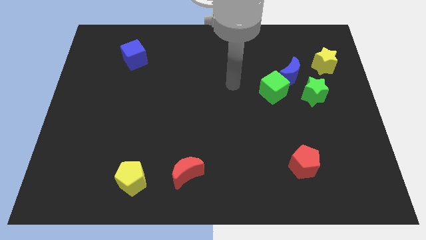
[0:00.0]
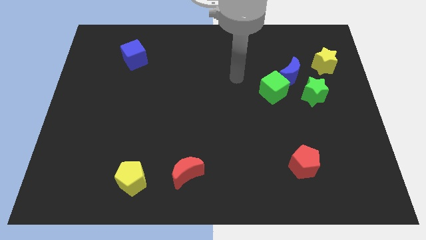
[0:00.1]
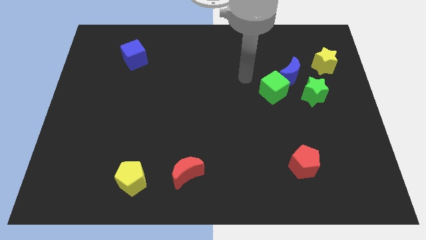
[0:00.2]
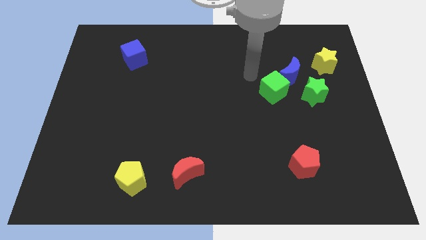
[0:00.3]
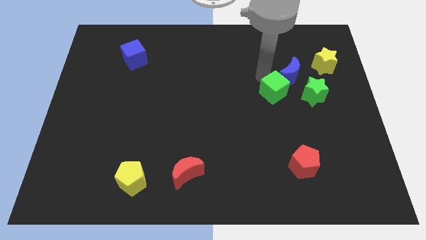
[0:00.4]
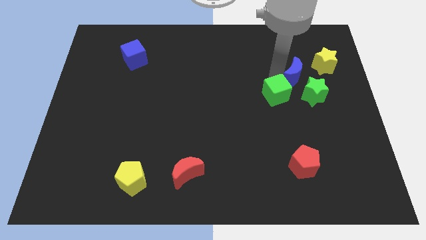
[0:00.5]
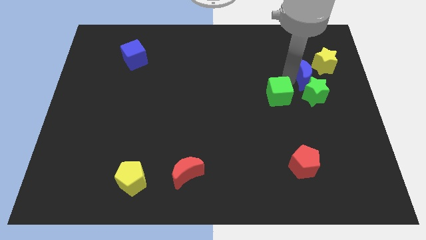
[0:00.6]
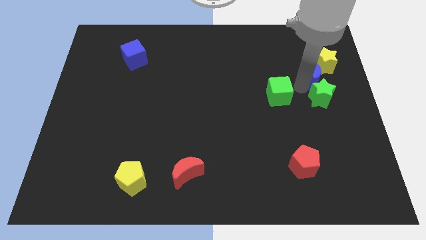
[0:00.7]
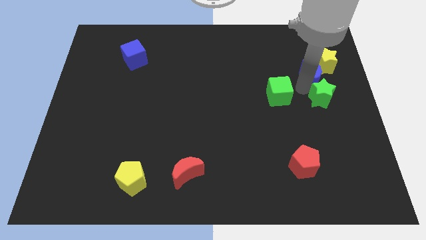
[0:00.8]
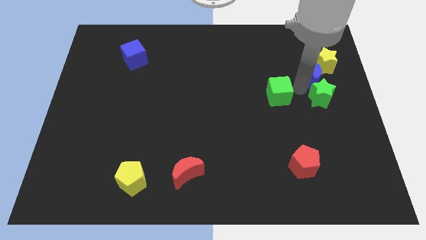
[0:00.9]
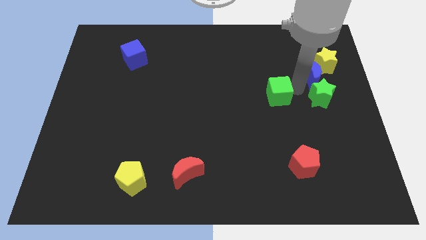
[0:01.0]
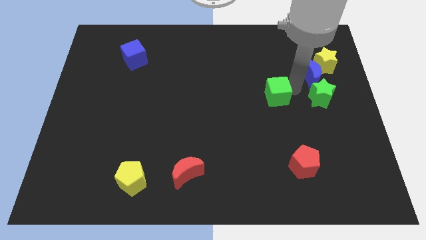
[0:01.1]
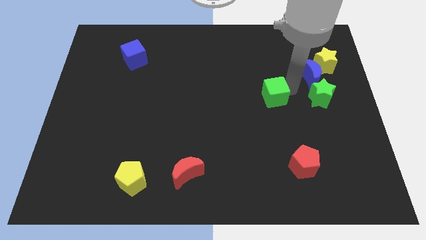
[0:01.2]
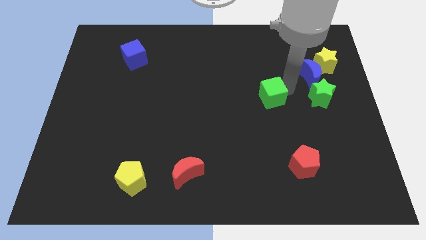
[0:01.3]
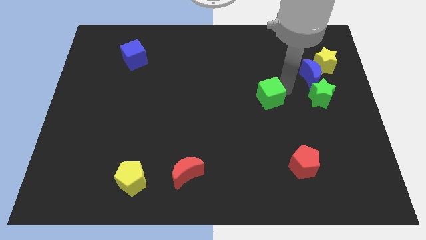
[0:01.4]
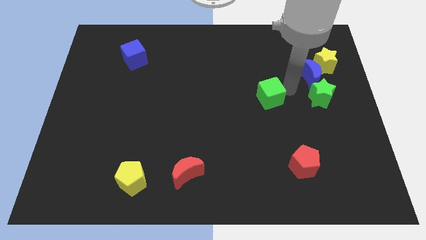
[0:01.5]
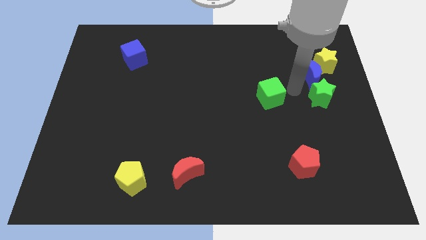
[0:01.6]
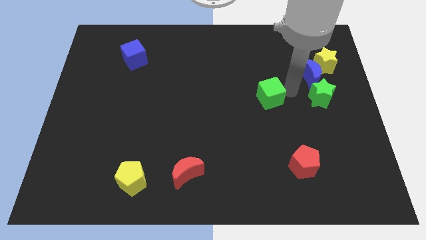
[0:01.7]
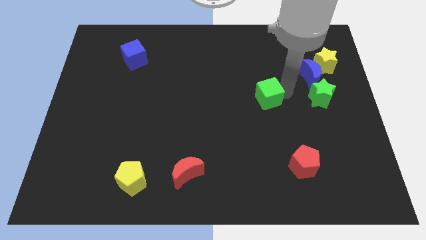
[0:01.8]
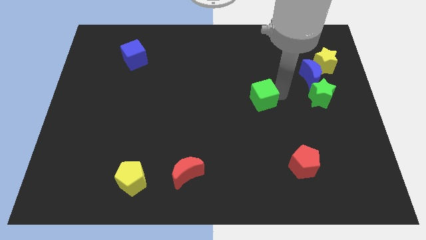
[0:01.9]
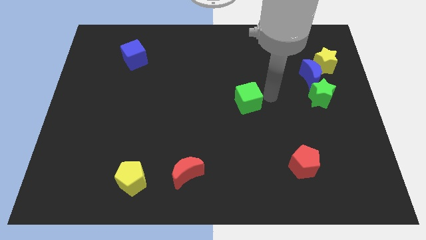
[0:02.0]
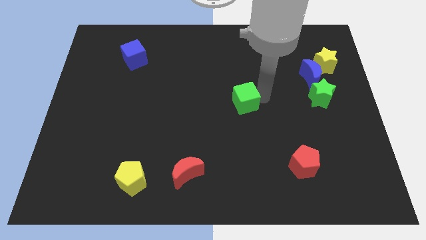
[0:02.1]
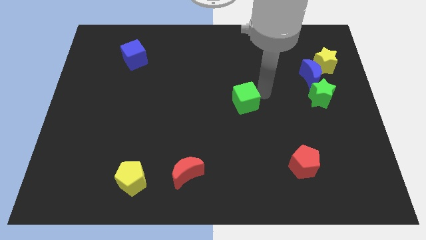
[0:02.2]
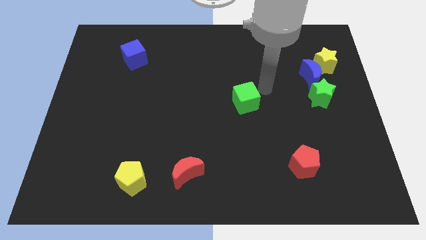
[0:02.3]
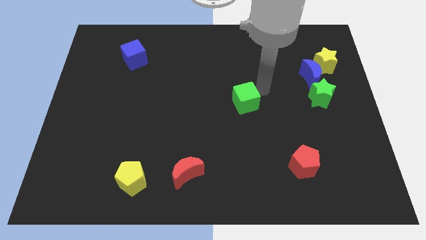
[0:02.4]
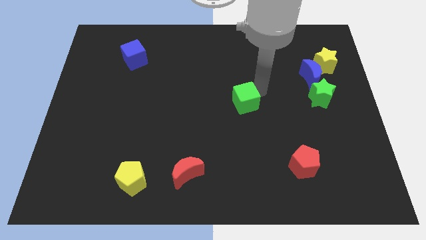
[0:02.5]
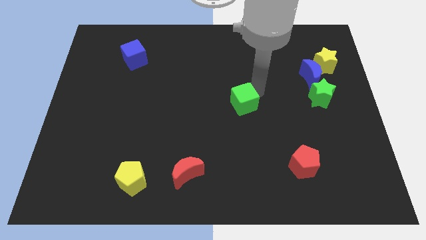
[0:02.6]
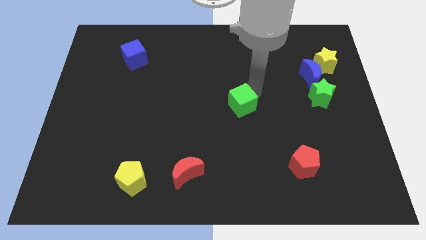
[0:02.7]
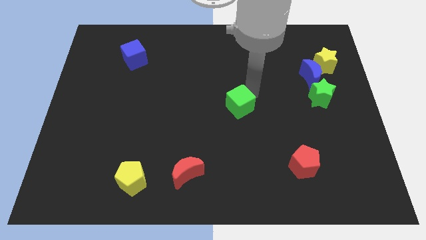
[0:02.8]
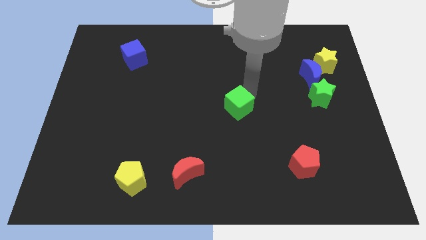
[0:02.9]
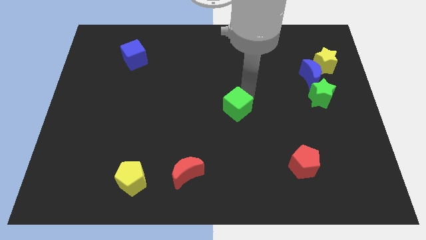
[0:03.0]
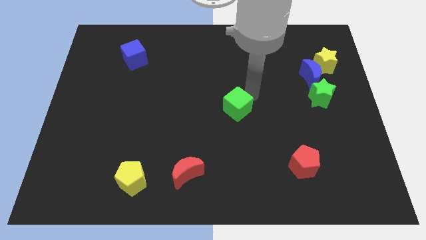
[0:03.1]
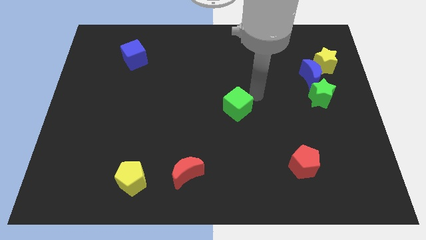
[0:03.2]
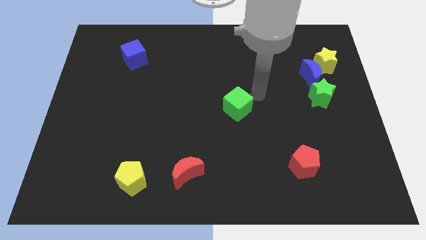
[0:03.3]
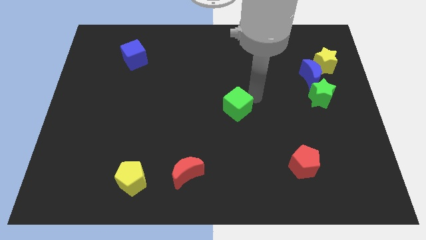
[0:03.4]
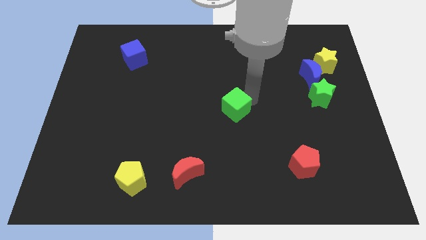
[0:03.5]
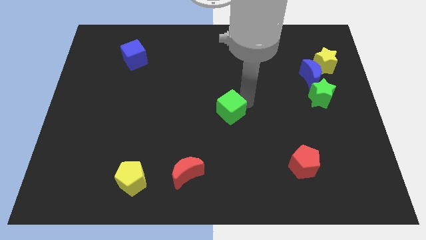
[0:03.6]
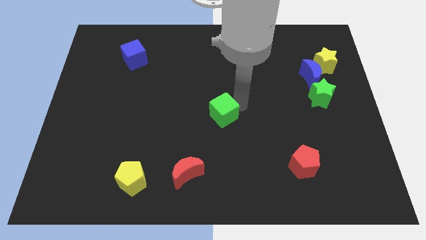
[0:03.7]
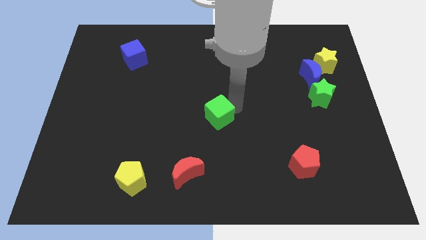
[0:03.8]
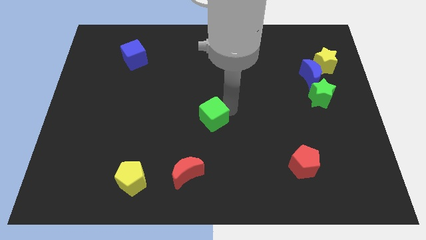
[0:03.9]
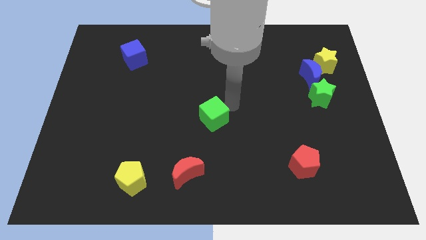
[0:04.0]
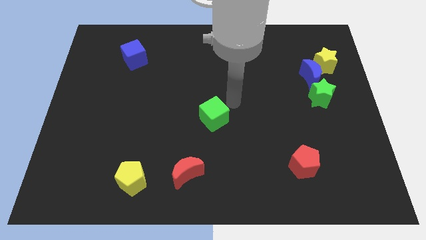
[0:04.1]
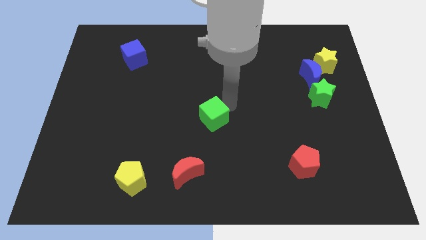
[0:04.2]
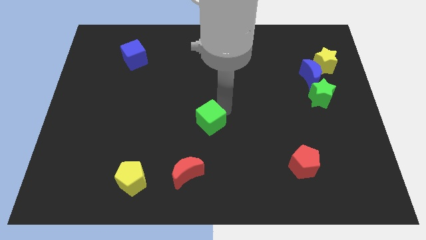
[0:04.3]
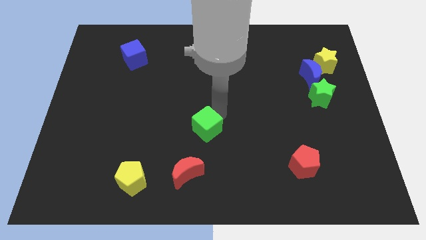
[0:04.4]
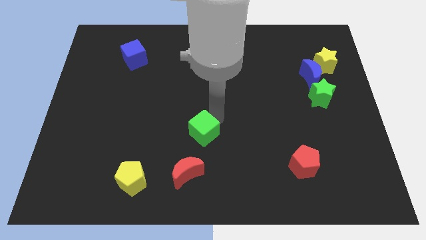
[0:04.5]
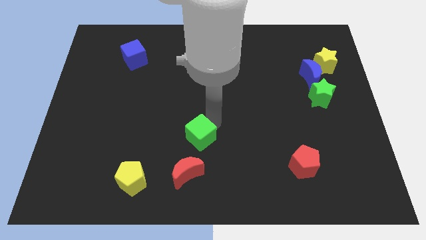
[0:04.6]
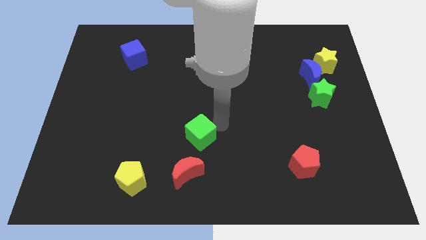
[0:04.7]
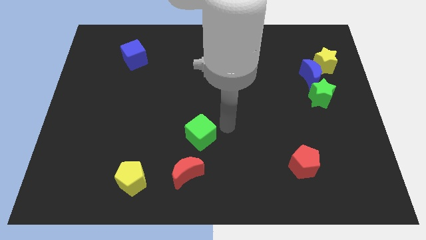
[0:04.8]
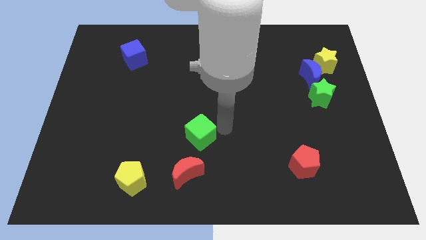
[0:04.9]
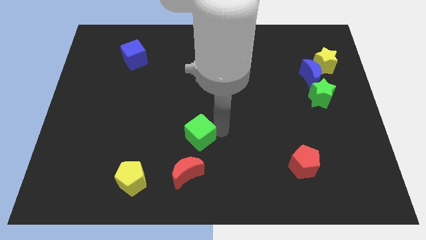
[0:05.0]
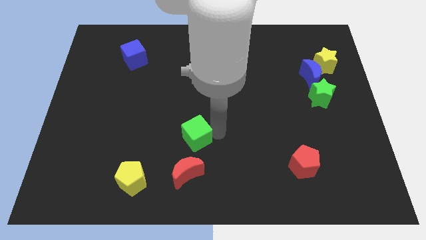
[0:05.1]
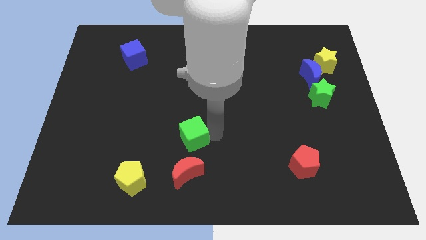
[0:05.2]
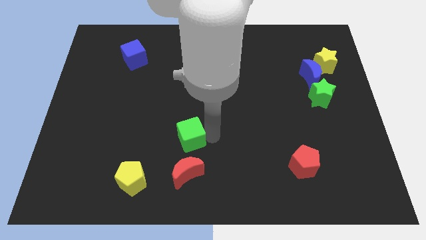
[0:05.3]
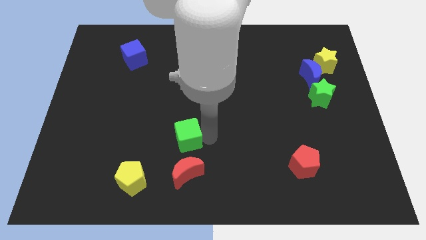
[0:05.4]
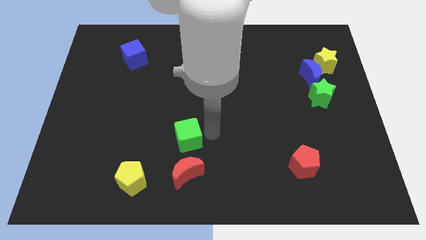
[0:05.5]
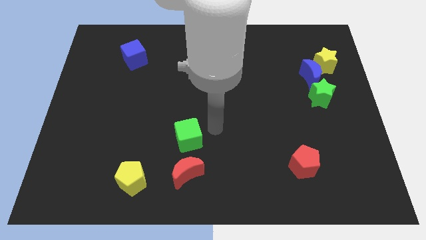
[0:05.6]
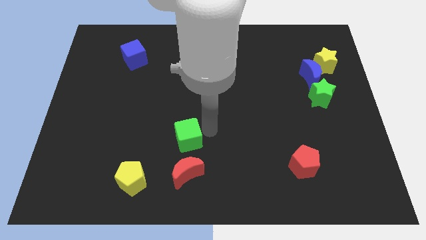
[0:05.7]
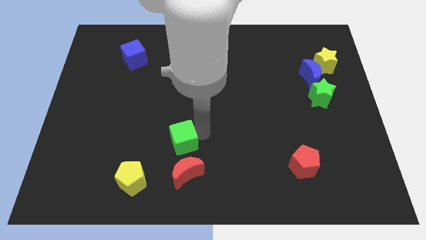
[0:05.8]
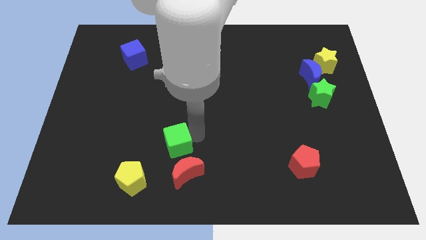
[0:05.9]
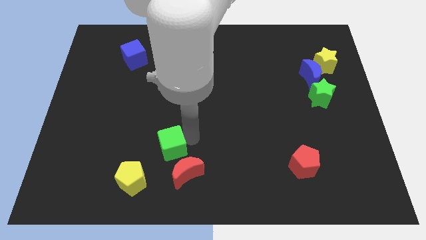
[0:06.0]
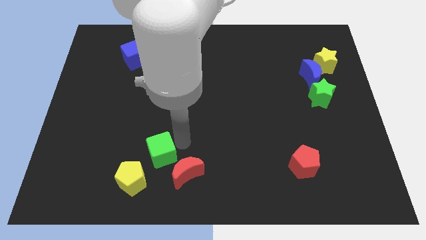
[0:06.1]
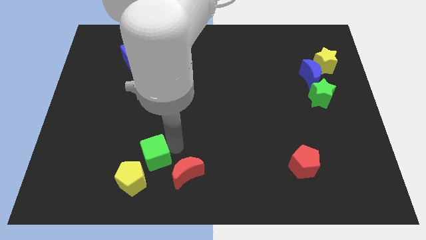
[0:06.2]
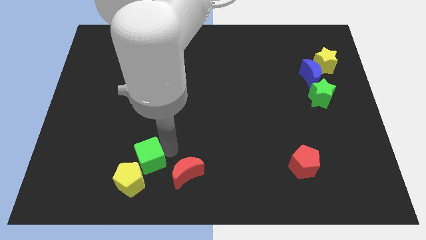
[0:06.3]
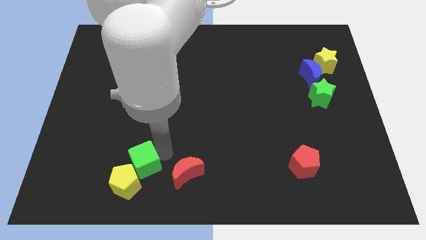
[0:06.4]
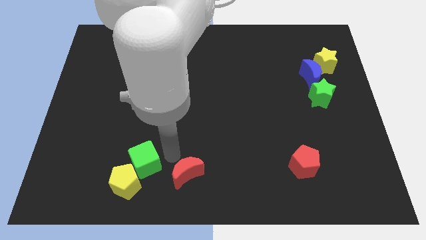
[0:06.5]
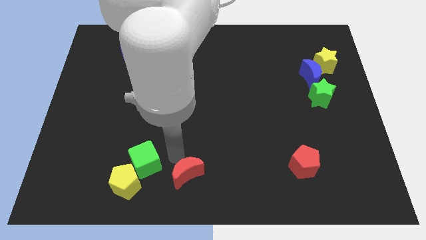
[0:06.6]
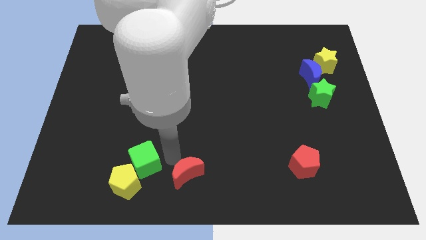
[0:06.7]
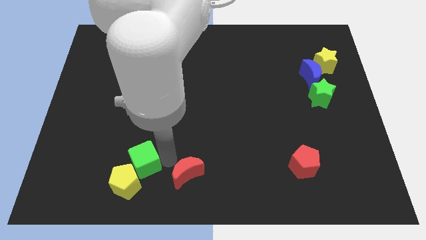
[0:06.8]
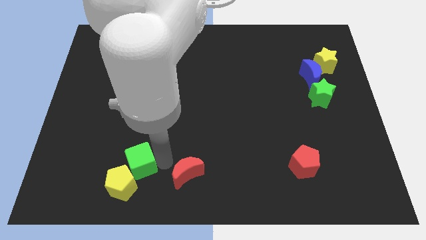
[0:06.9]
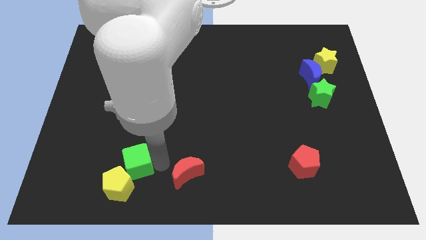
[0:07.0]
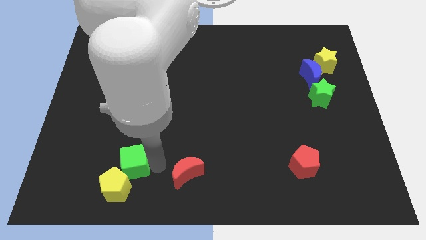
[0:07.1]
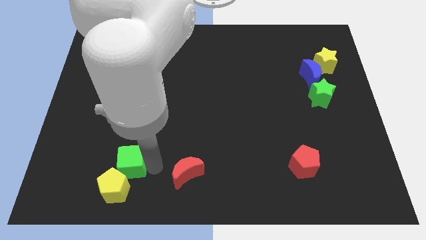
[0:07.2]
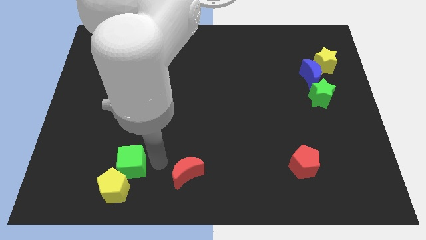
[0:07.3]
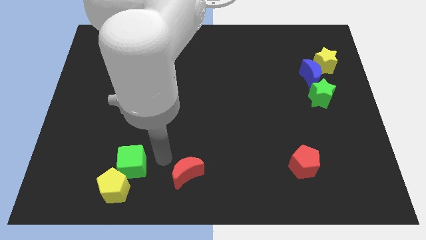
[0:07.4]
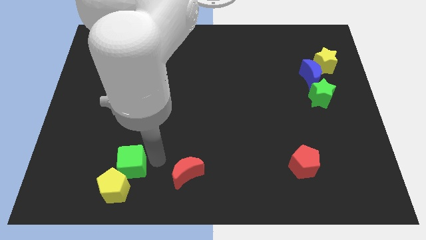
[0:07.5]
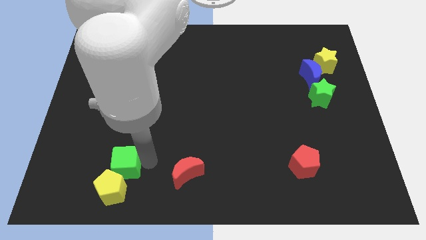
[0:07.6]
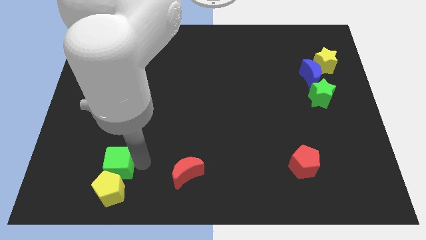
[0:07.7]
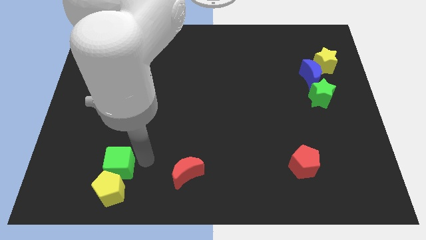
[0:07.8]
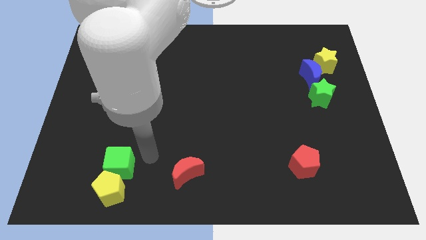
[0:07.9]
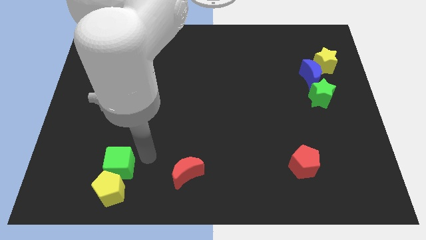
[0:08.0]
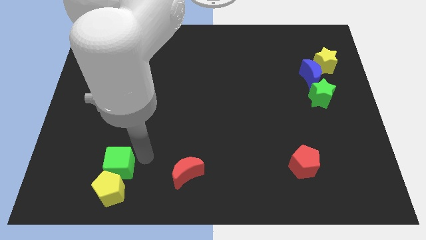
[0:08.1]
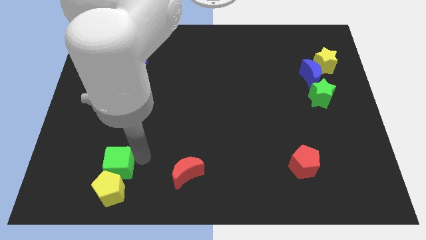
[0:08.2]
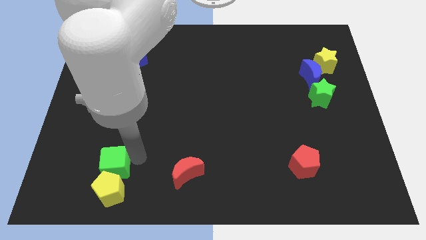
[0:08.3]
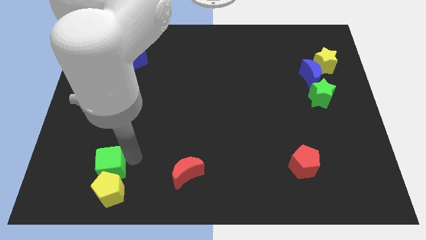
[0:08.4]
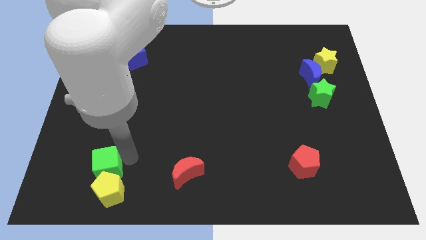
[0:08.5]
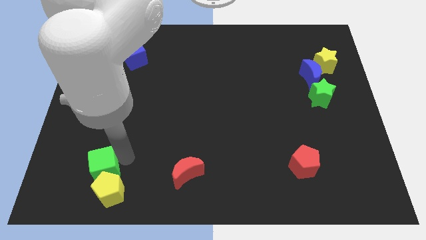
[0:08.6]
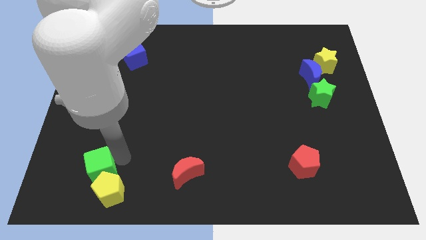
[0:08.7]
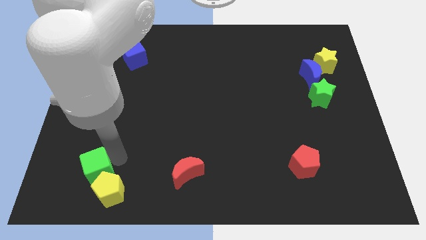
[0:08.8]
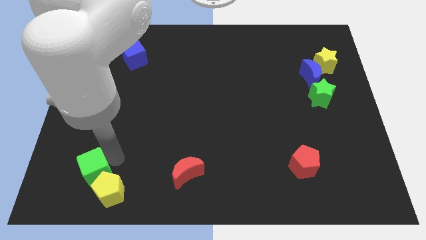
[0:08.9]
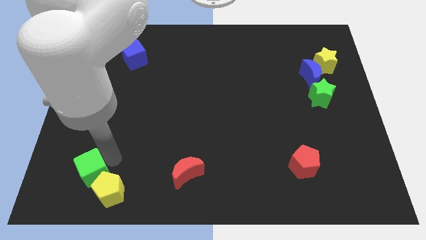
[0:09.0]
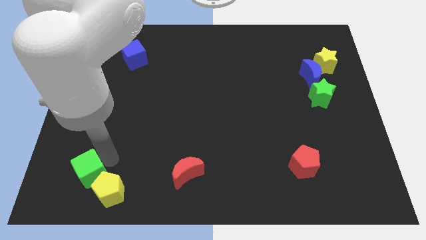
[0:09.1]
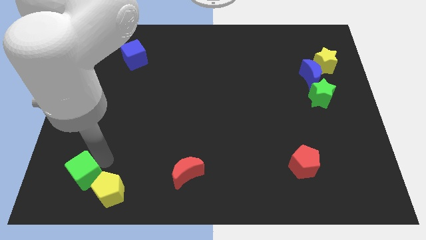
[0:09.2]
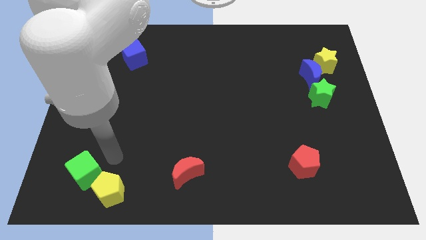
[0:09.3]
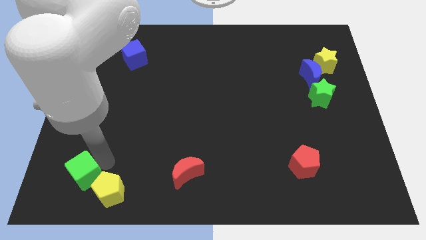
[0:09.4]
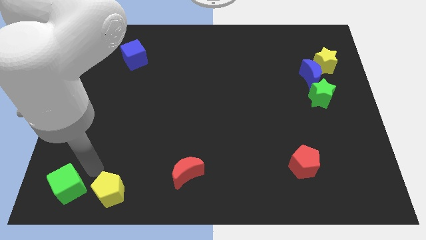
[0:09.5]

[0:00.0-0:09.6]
slide the green cube to the bottom left of the board
